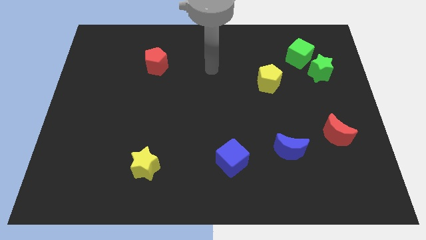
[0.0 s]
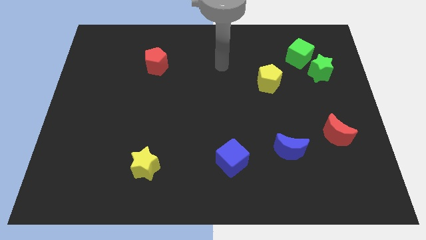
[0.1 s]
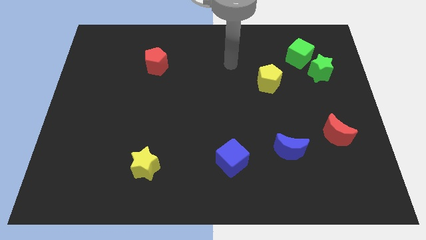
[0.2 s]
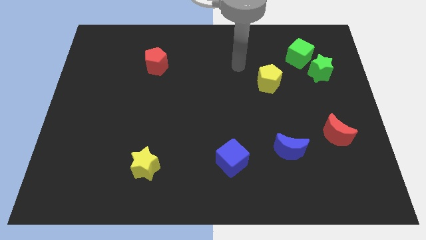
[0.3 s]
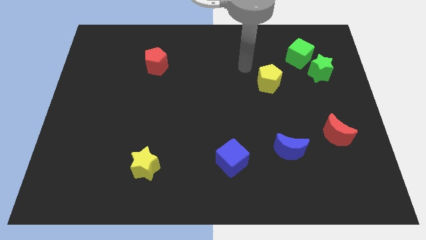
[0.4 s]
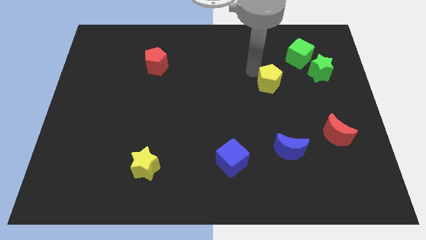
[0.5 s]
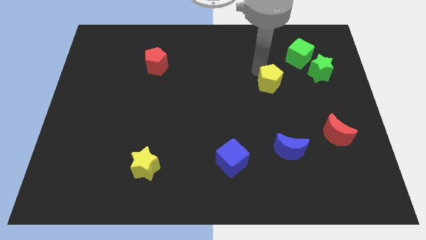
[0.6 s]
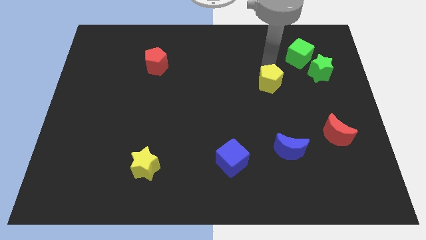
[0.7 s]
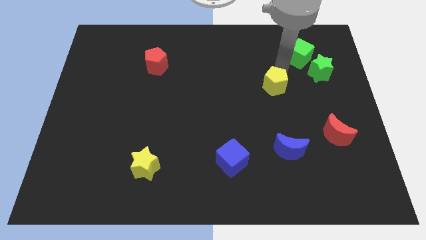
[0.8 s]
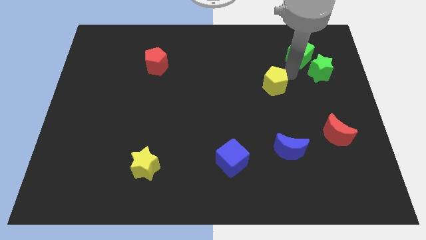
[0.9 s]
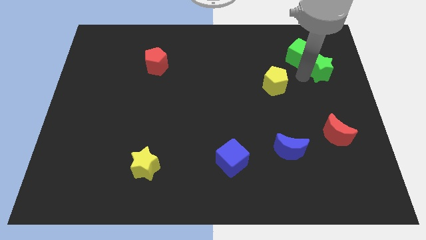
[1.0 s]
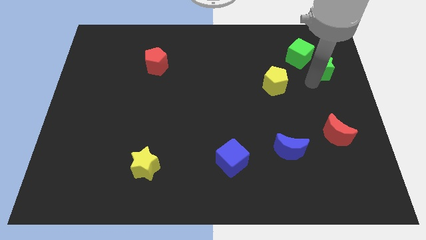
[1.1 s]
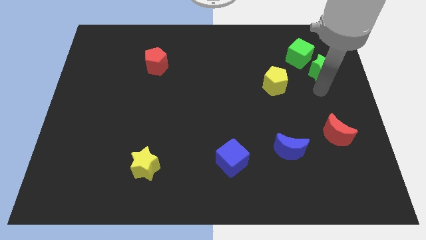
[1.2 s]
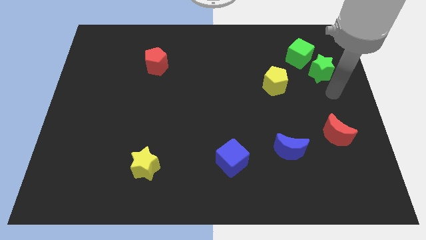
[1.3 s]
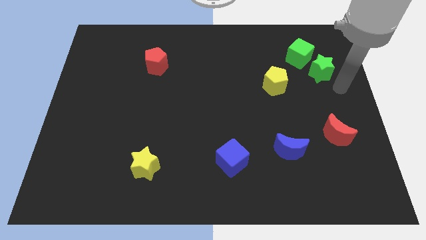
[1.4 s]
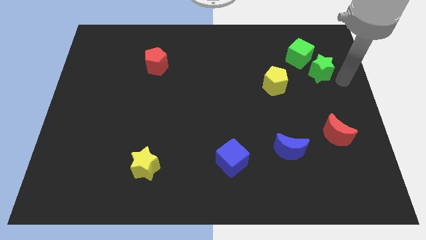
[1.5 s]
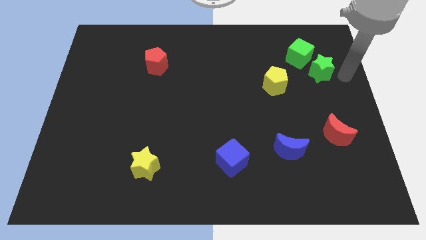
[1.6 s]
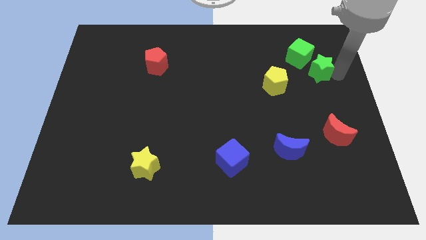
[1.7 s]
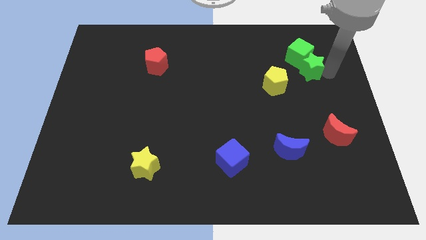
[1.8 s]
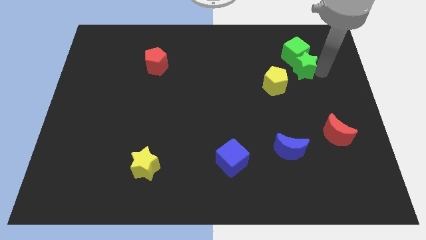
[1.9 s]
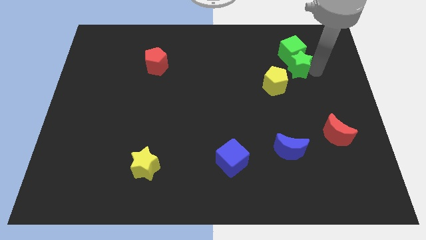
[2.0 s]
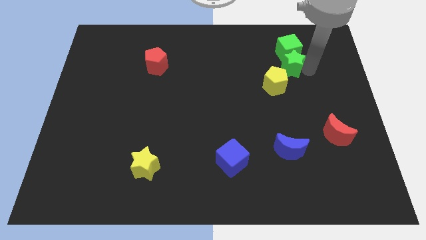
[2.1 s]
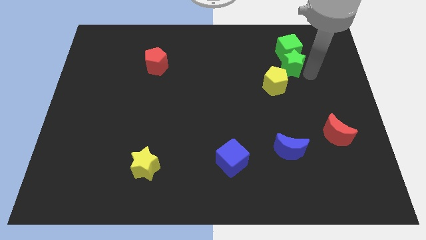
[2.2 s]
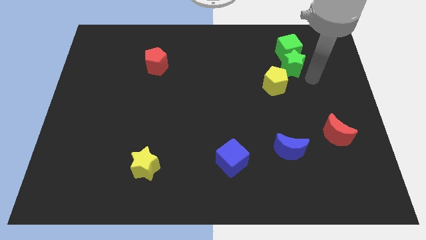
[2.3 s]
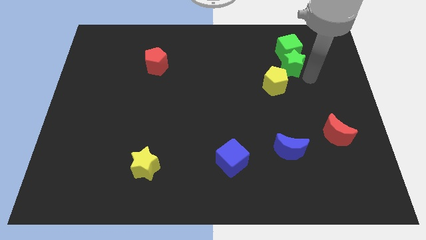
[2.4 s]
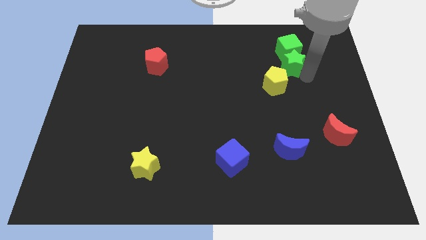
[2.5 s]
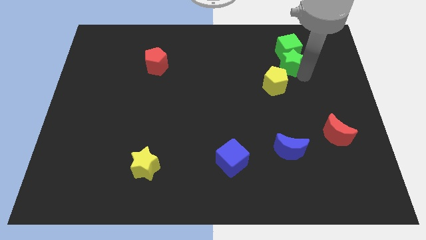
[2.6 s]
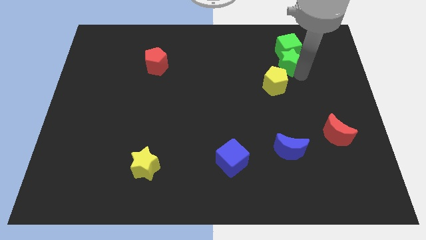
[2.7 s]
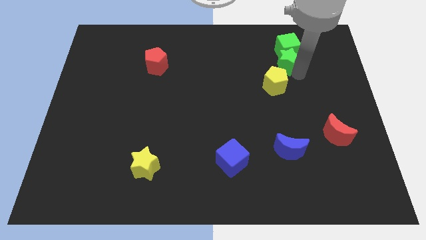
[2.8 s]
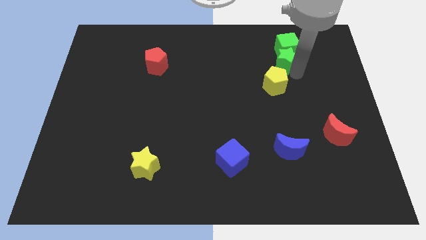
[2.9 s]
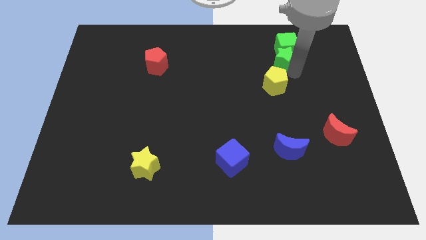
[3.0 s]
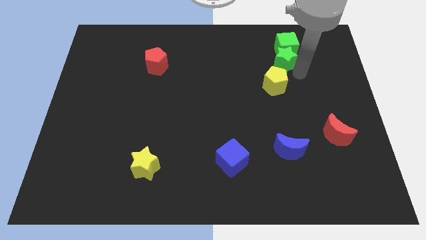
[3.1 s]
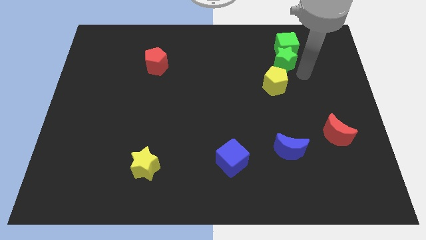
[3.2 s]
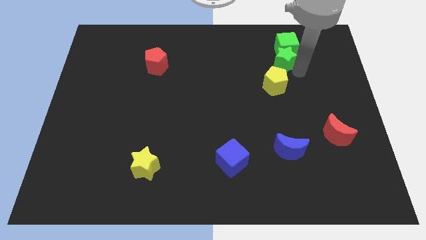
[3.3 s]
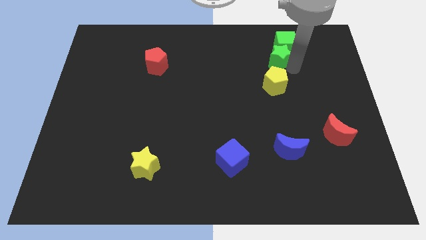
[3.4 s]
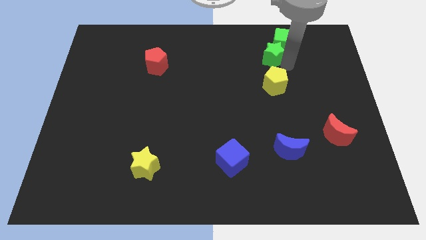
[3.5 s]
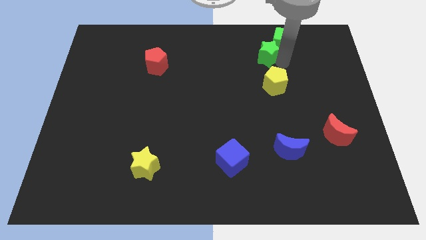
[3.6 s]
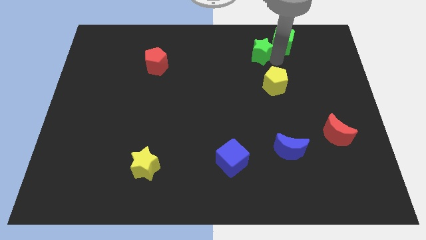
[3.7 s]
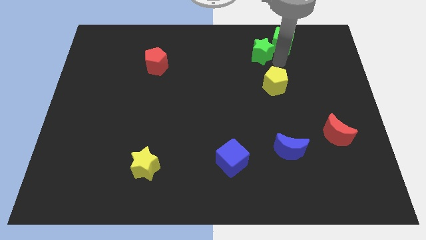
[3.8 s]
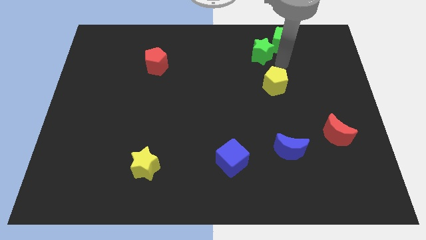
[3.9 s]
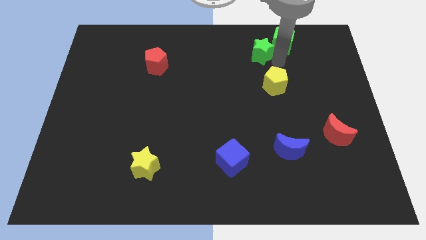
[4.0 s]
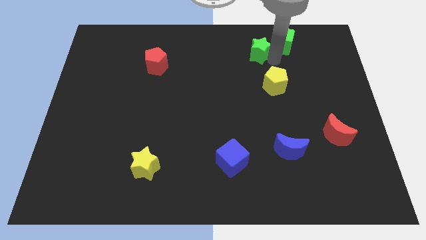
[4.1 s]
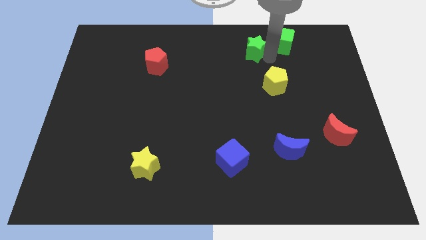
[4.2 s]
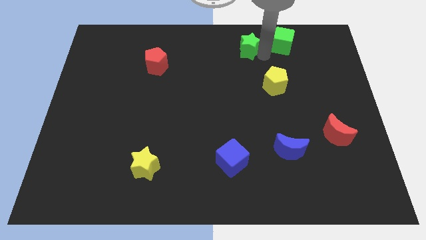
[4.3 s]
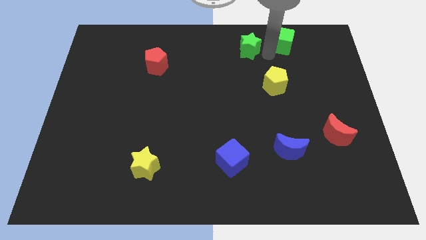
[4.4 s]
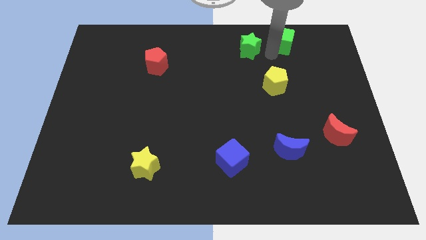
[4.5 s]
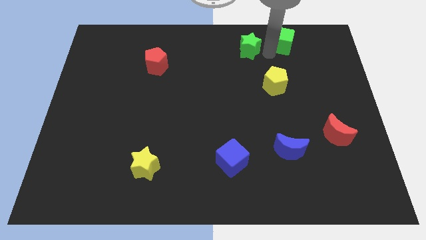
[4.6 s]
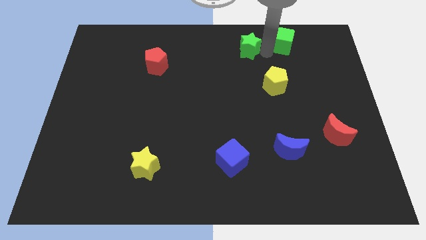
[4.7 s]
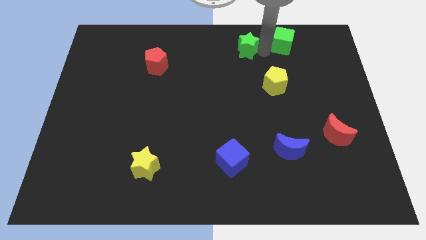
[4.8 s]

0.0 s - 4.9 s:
put the green star to the towards your base

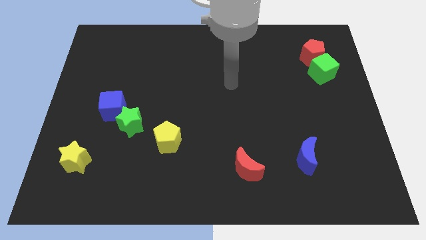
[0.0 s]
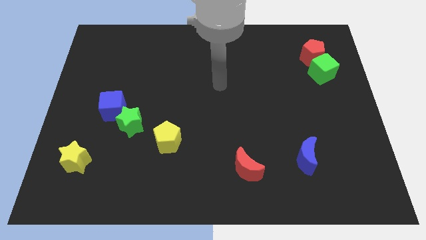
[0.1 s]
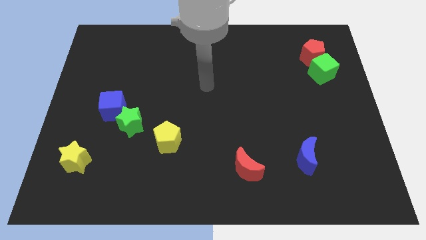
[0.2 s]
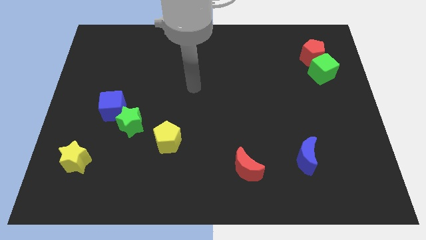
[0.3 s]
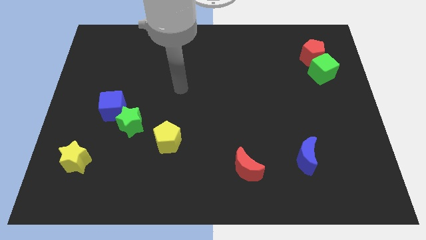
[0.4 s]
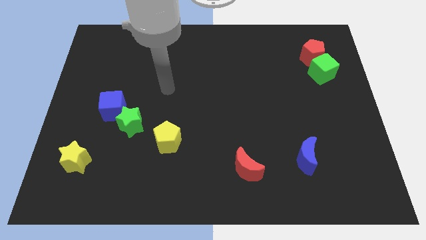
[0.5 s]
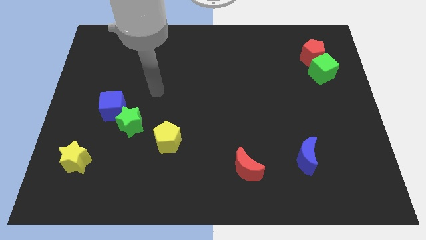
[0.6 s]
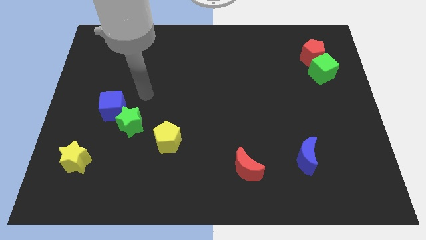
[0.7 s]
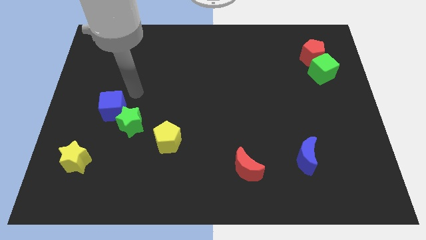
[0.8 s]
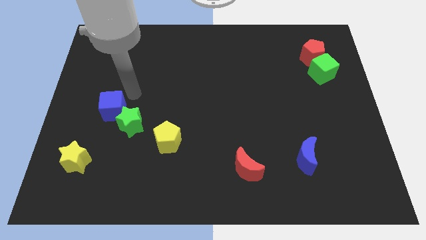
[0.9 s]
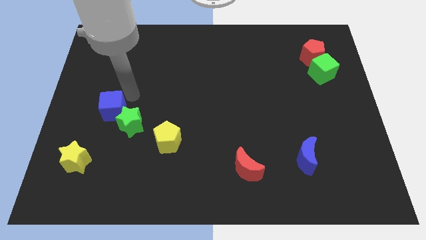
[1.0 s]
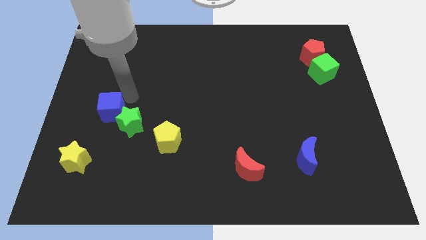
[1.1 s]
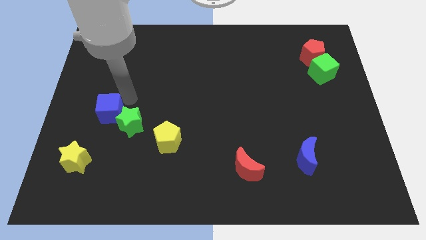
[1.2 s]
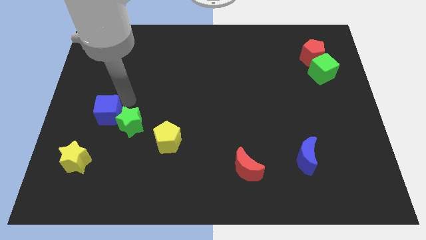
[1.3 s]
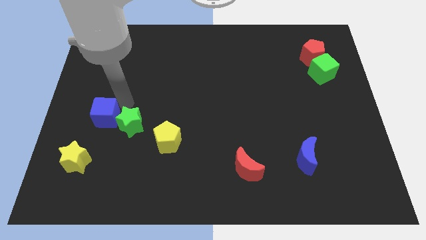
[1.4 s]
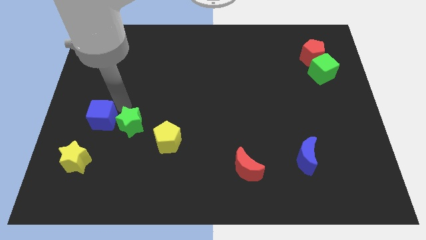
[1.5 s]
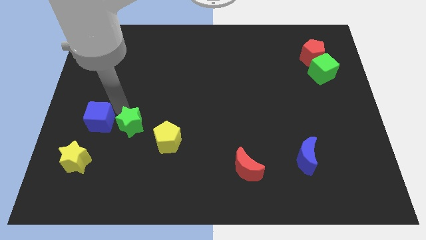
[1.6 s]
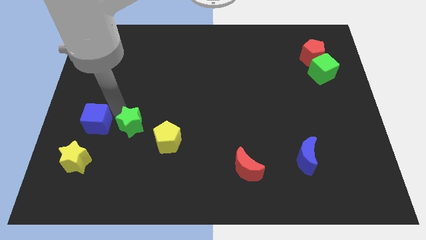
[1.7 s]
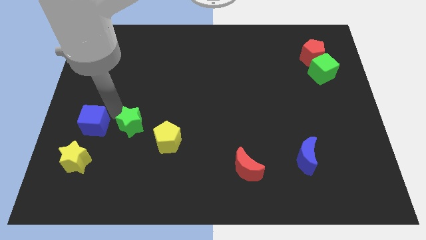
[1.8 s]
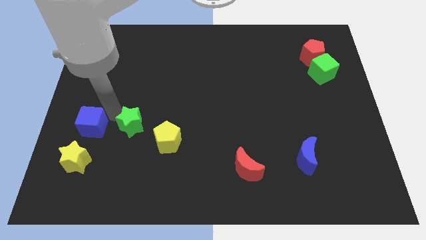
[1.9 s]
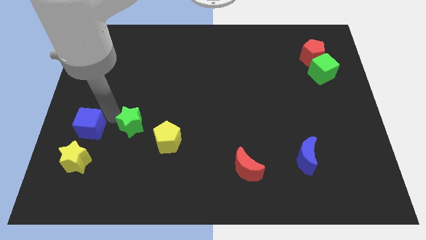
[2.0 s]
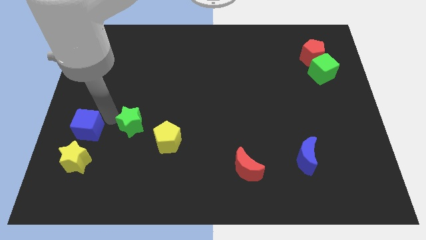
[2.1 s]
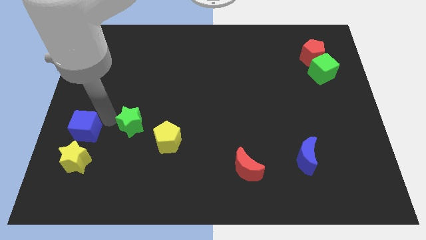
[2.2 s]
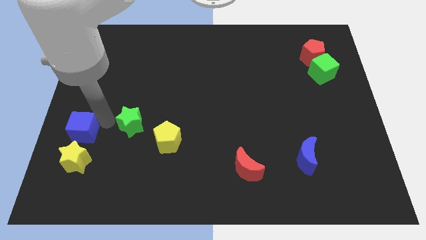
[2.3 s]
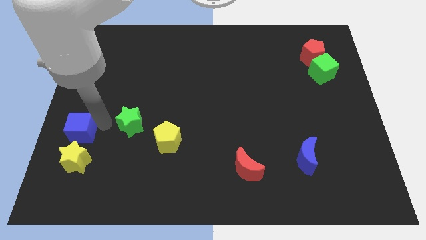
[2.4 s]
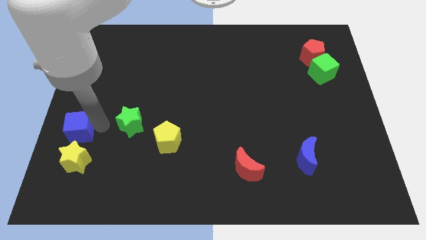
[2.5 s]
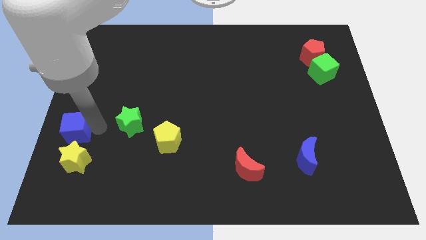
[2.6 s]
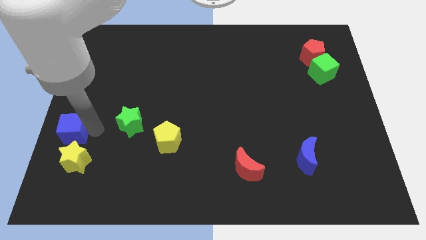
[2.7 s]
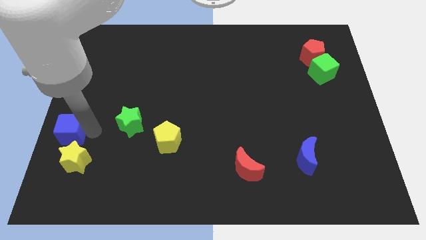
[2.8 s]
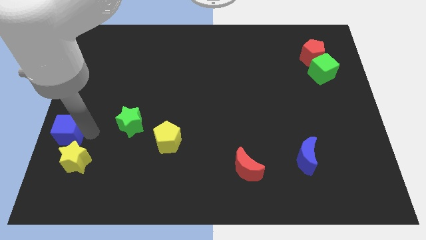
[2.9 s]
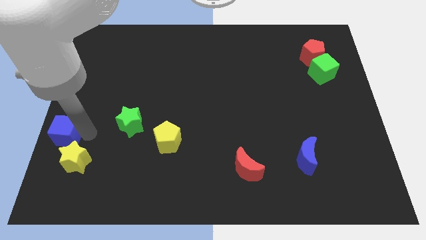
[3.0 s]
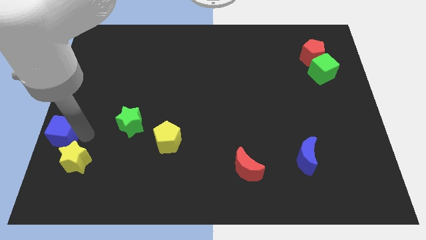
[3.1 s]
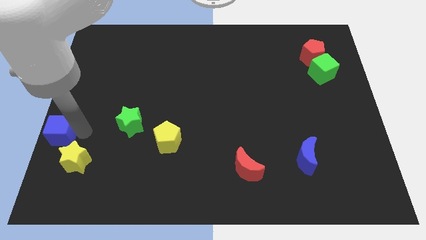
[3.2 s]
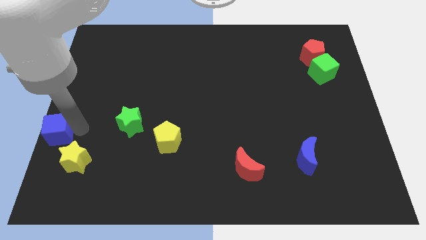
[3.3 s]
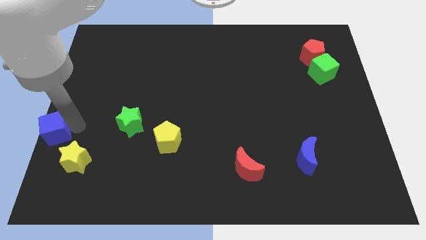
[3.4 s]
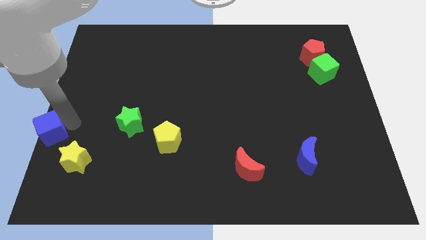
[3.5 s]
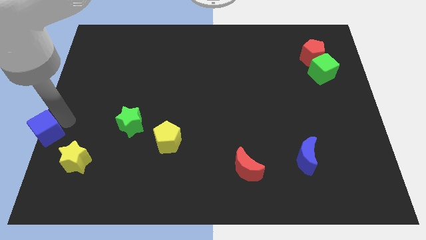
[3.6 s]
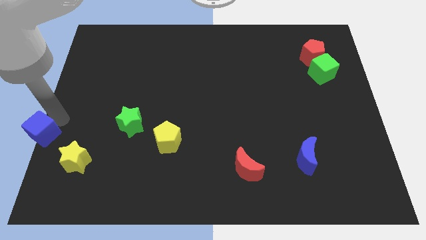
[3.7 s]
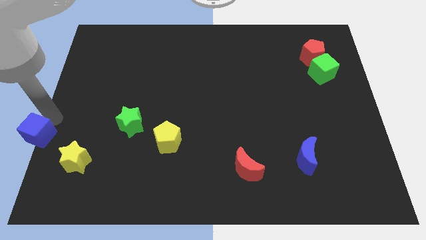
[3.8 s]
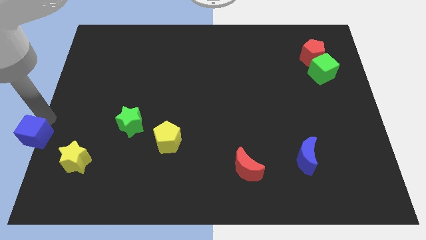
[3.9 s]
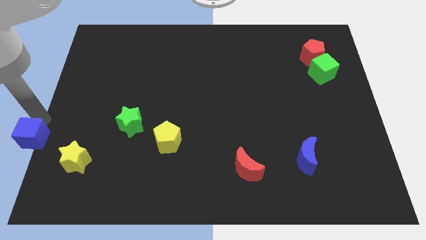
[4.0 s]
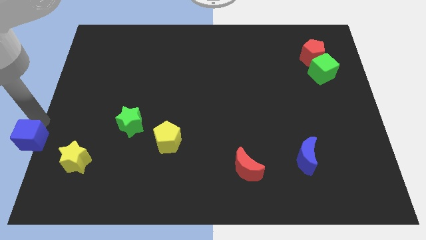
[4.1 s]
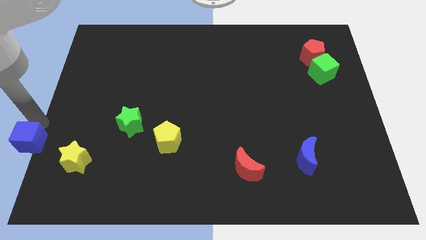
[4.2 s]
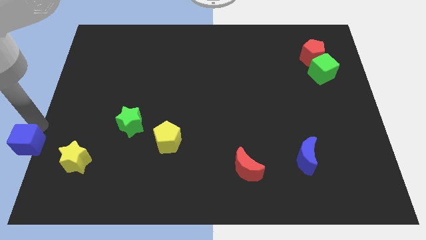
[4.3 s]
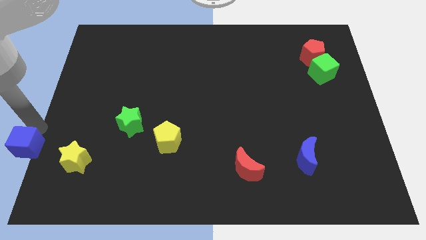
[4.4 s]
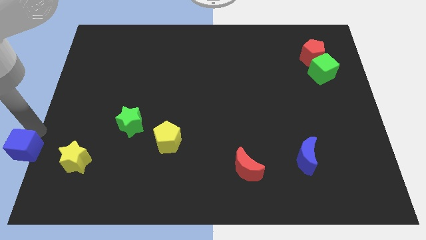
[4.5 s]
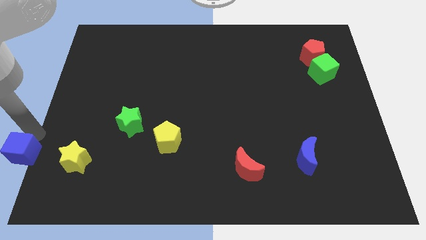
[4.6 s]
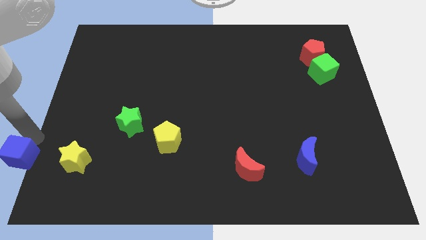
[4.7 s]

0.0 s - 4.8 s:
put the blue cube to the bottom left corner
